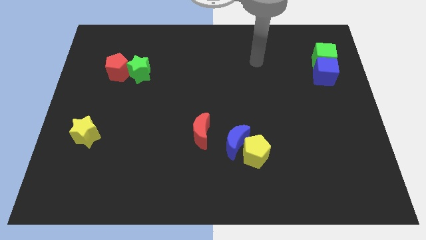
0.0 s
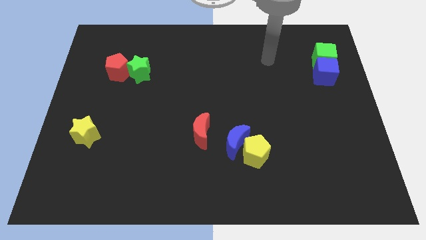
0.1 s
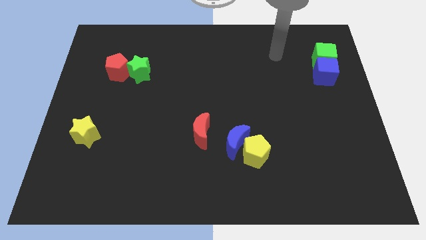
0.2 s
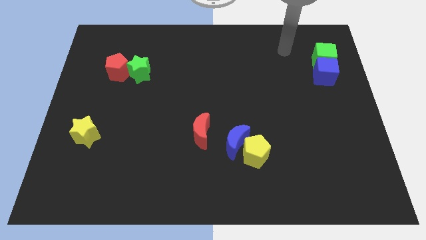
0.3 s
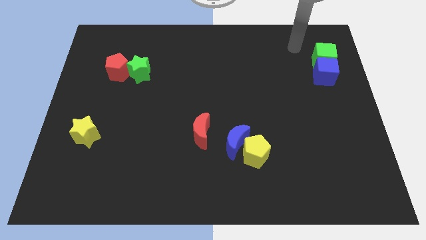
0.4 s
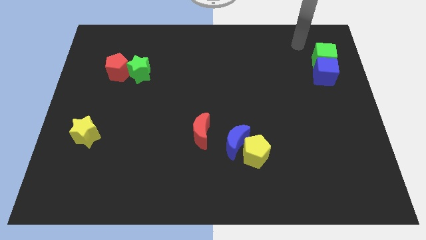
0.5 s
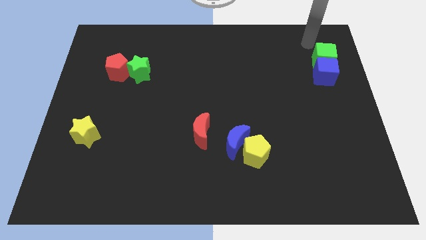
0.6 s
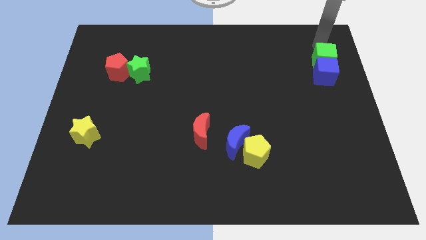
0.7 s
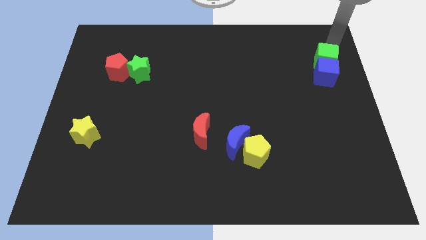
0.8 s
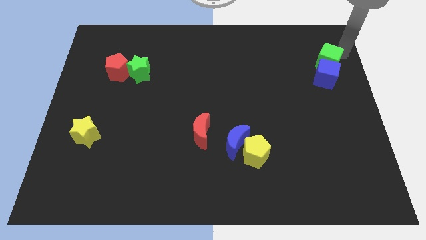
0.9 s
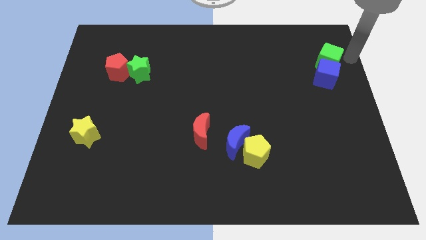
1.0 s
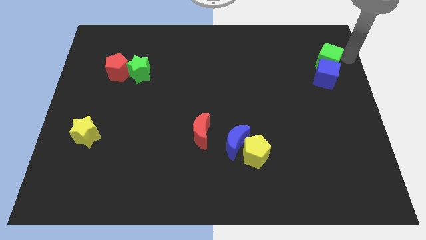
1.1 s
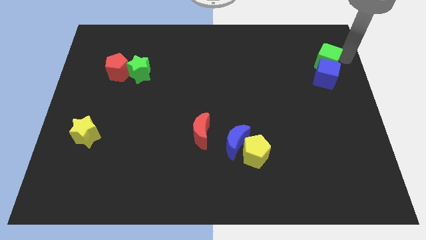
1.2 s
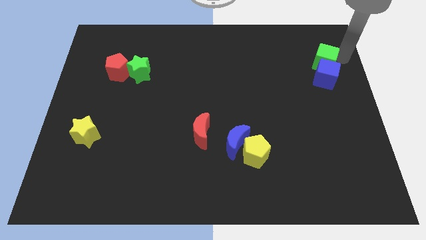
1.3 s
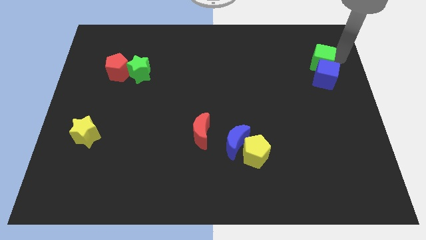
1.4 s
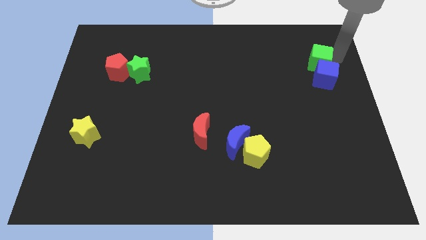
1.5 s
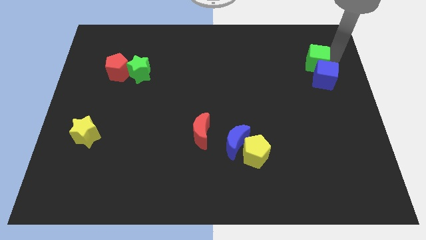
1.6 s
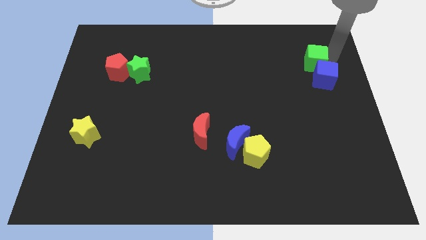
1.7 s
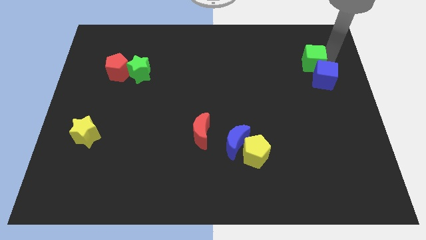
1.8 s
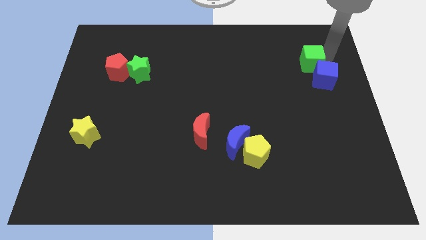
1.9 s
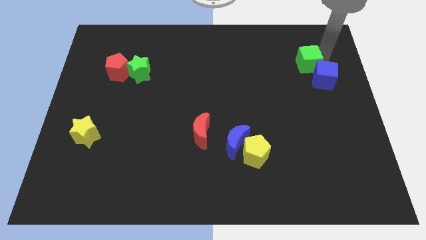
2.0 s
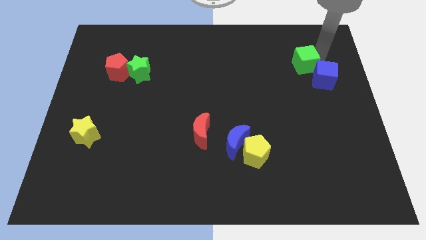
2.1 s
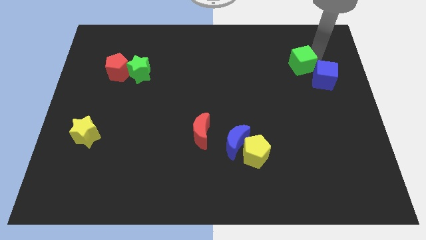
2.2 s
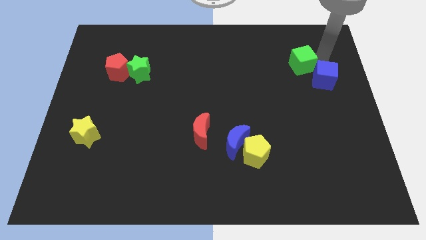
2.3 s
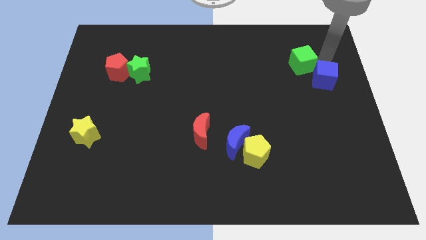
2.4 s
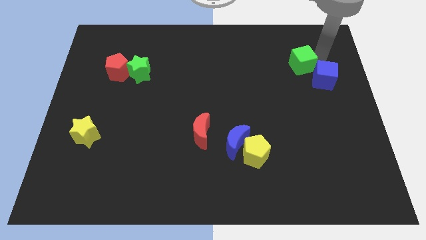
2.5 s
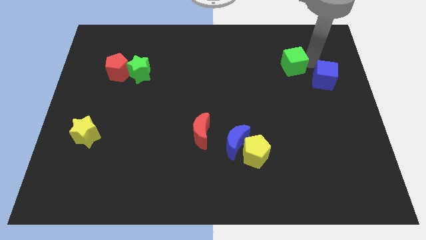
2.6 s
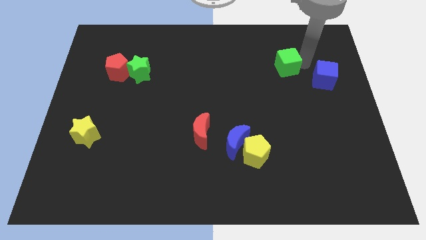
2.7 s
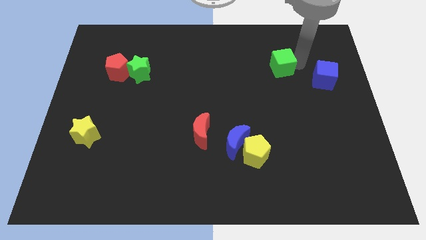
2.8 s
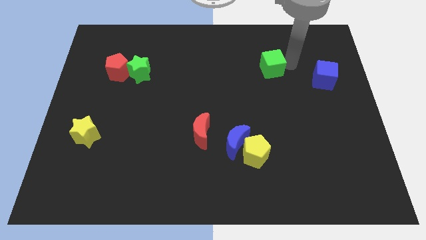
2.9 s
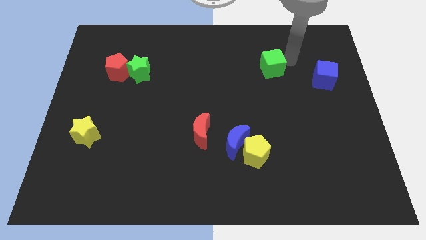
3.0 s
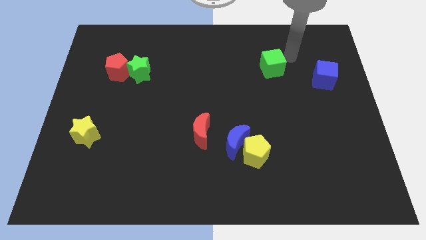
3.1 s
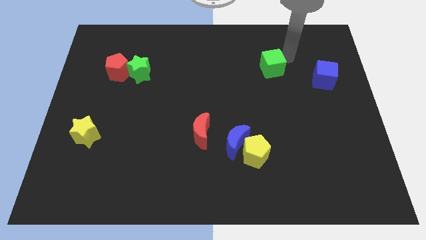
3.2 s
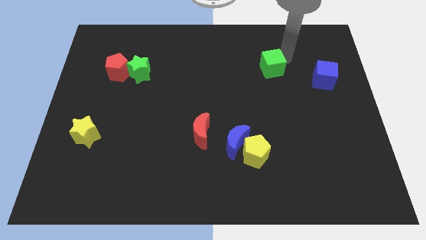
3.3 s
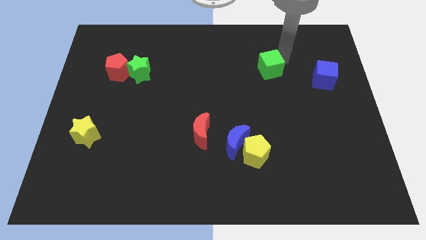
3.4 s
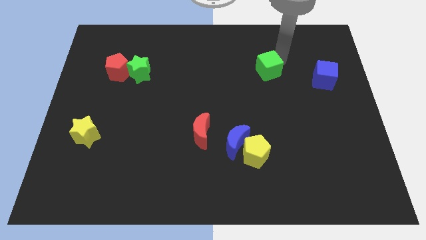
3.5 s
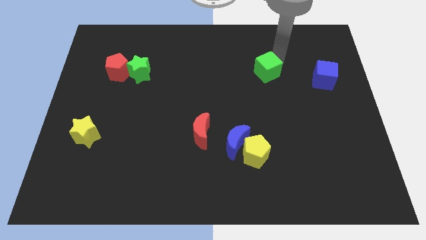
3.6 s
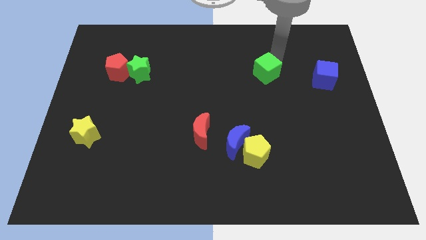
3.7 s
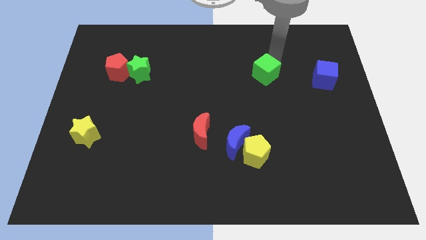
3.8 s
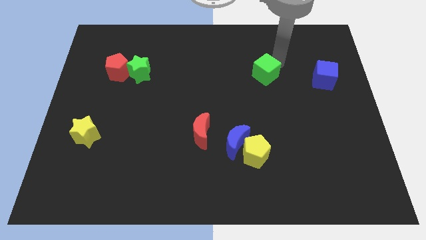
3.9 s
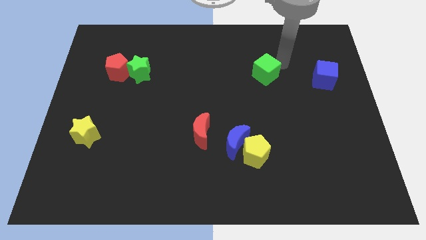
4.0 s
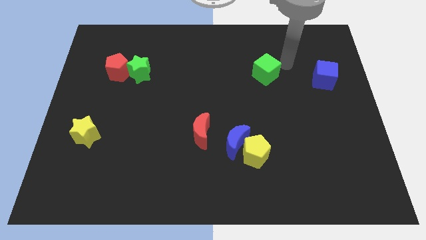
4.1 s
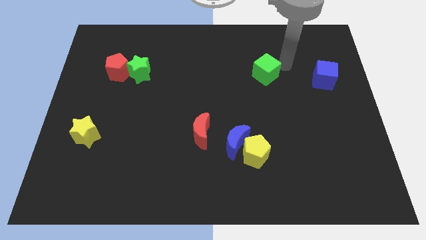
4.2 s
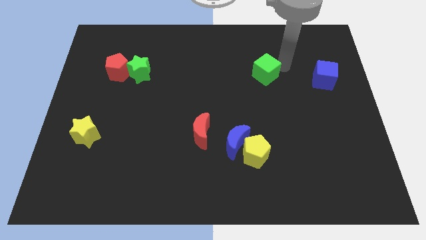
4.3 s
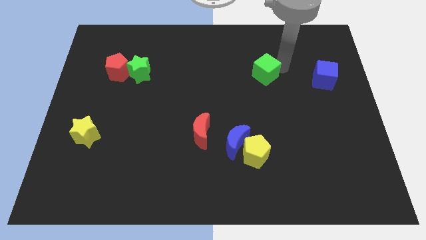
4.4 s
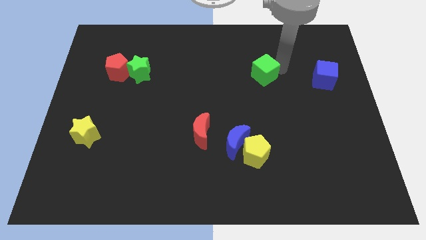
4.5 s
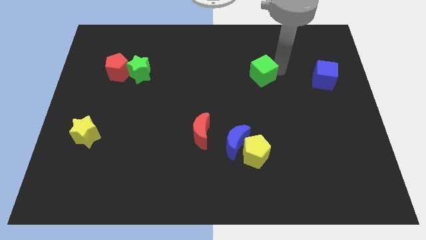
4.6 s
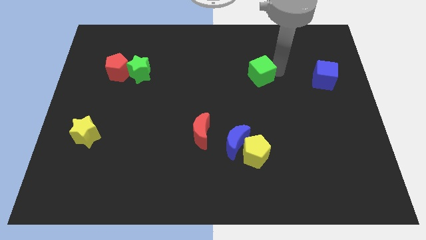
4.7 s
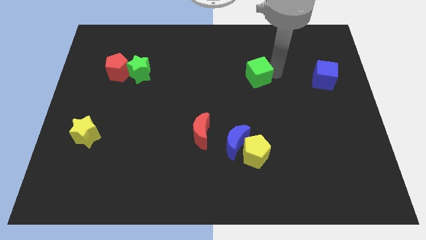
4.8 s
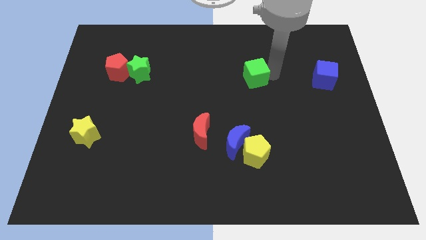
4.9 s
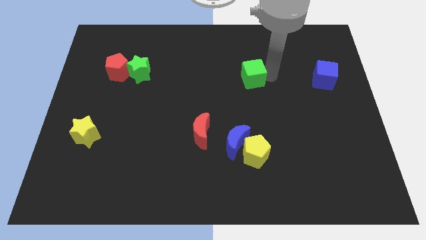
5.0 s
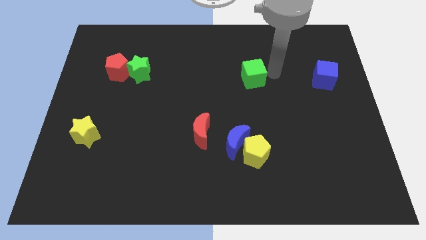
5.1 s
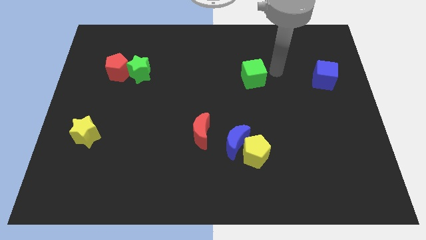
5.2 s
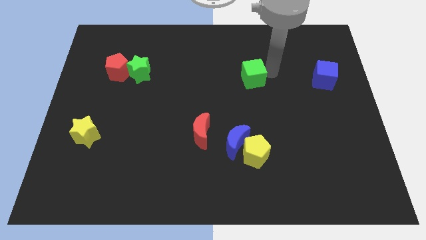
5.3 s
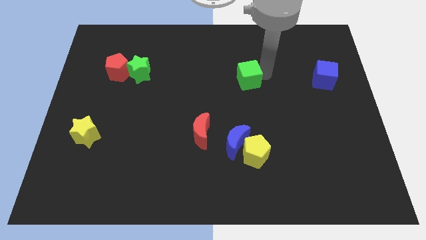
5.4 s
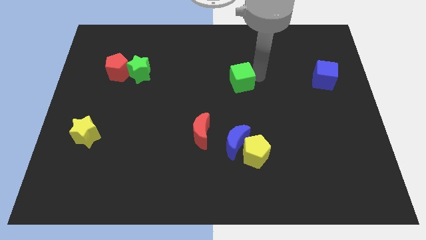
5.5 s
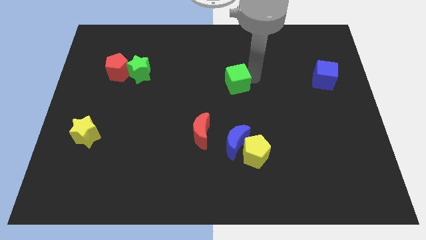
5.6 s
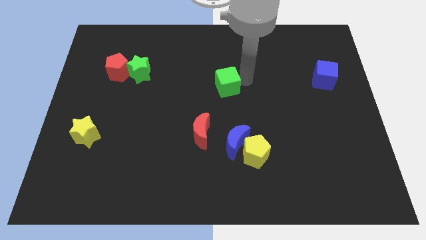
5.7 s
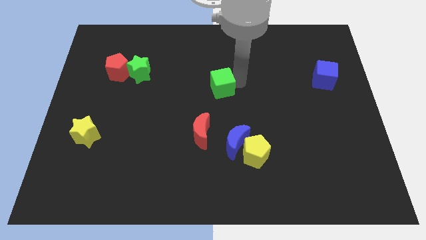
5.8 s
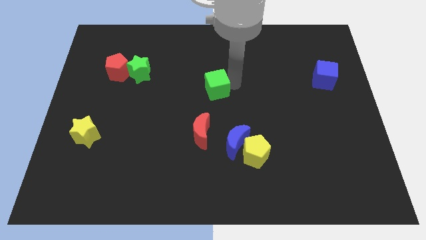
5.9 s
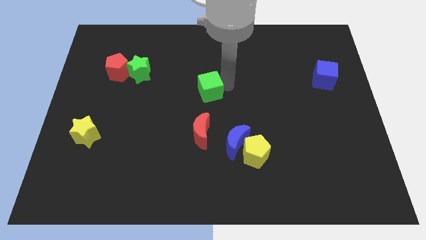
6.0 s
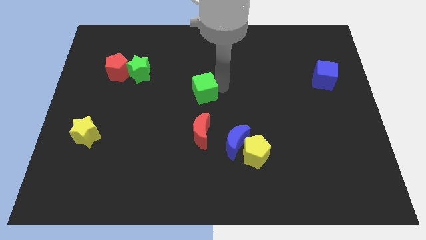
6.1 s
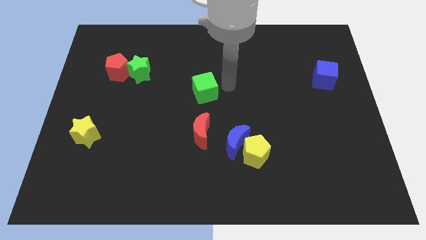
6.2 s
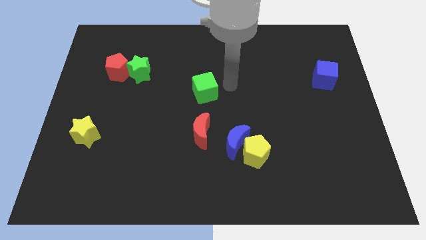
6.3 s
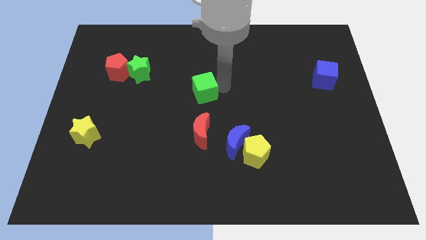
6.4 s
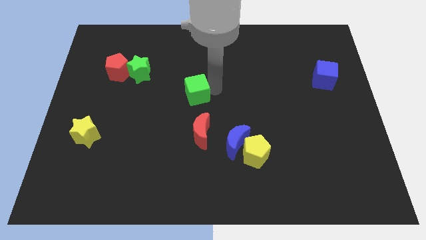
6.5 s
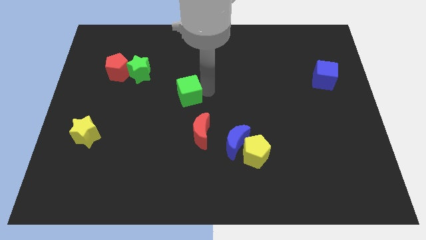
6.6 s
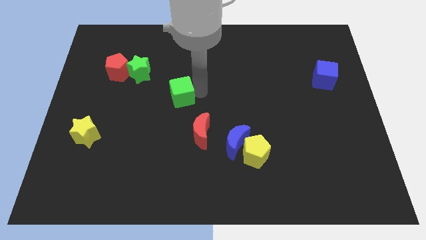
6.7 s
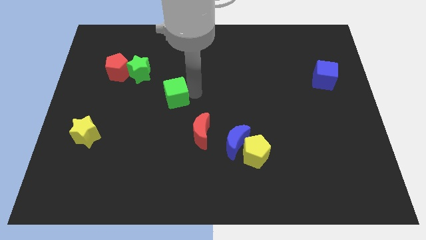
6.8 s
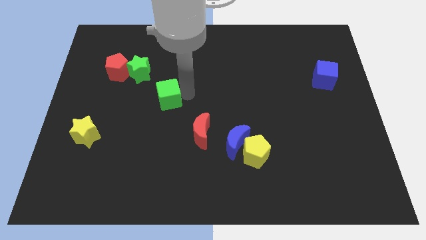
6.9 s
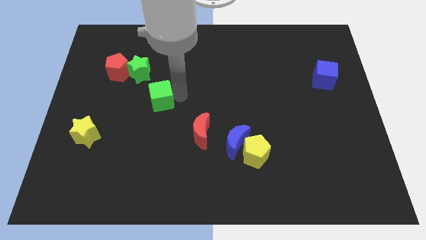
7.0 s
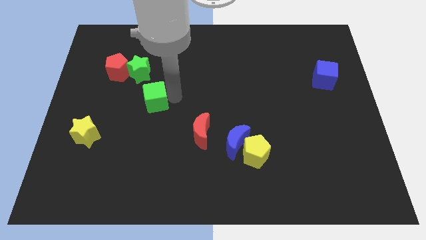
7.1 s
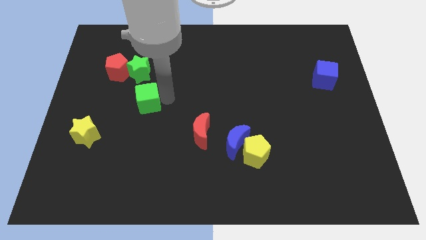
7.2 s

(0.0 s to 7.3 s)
slide the green cube to the bottom of the green star
